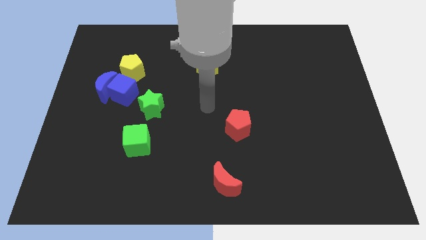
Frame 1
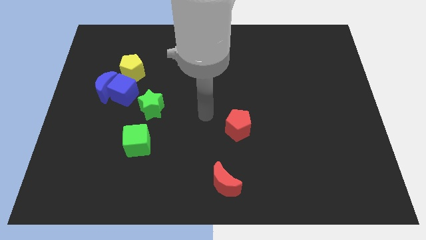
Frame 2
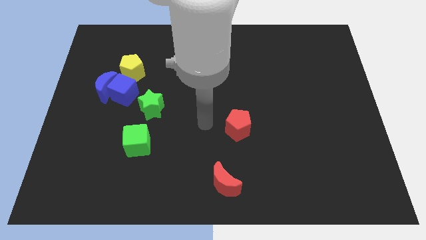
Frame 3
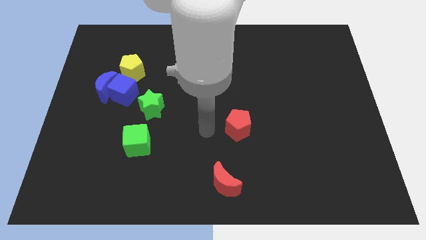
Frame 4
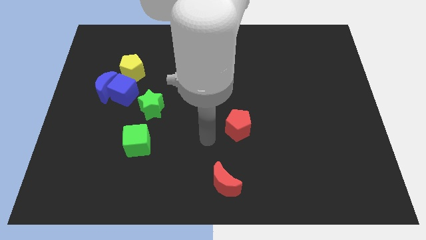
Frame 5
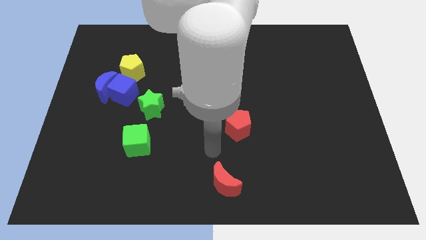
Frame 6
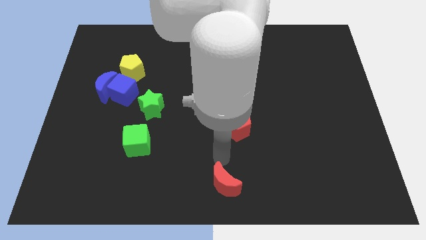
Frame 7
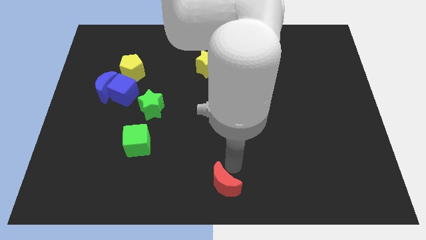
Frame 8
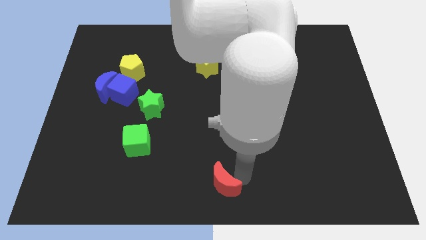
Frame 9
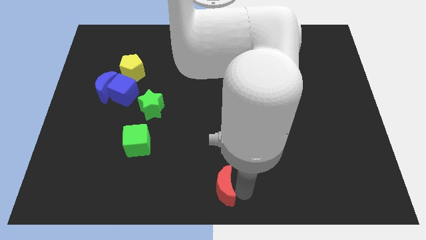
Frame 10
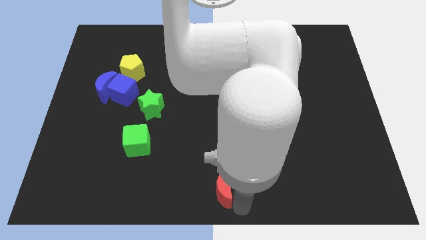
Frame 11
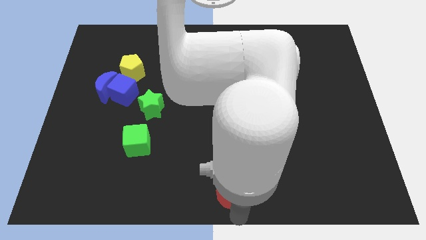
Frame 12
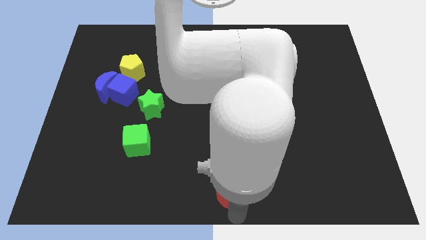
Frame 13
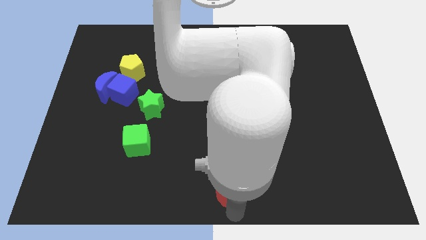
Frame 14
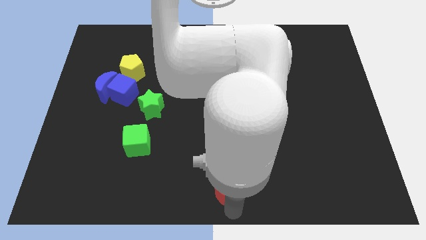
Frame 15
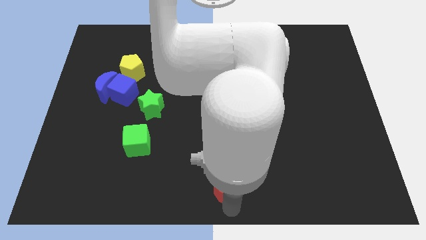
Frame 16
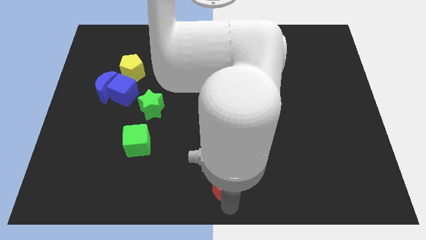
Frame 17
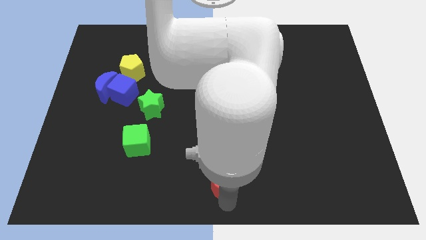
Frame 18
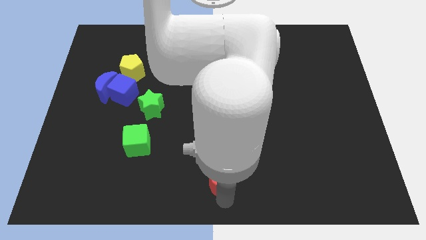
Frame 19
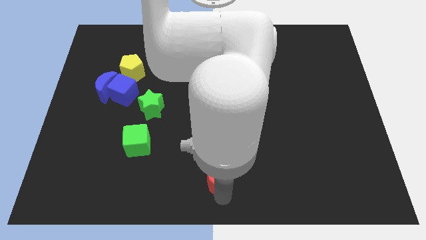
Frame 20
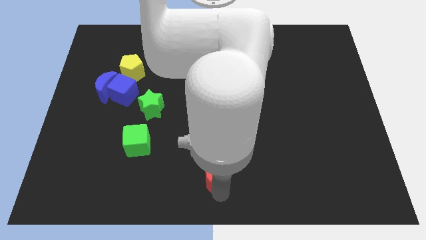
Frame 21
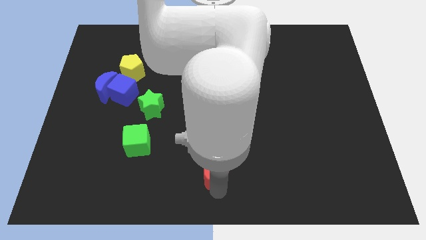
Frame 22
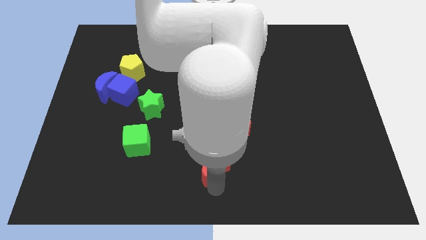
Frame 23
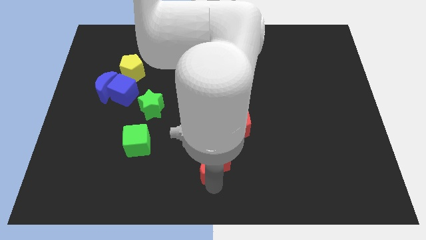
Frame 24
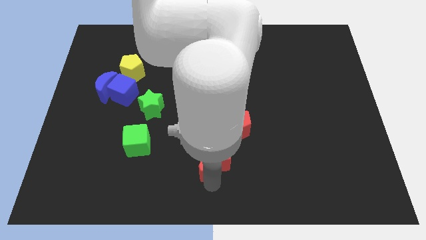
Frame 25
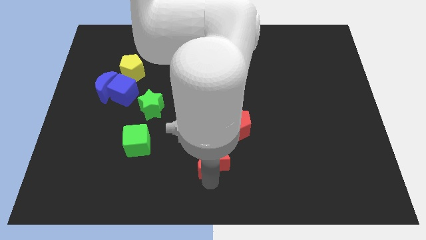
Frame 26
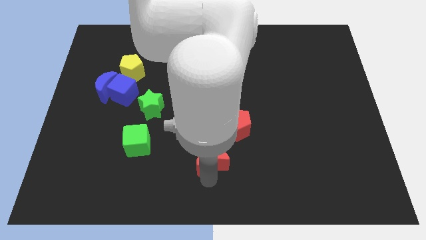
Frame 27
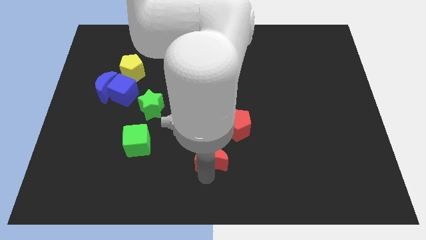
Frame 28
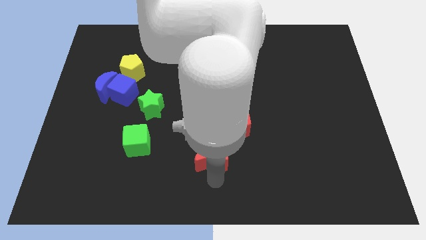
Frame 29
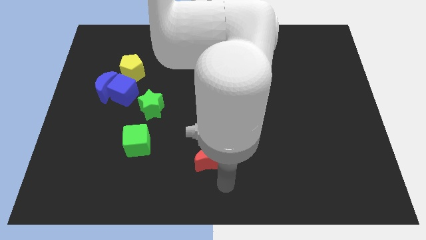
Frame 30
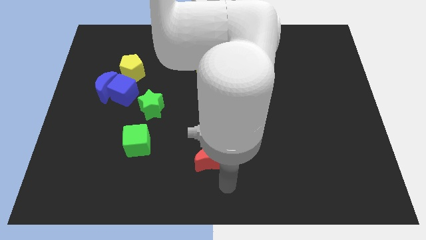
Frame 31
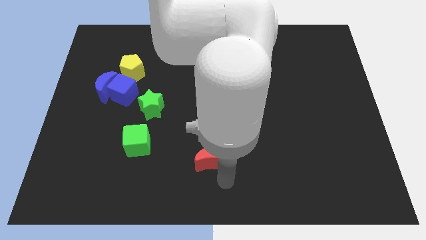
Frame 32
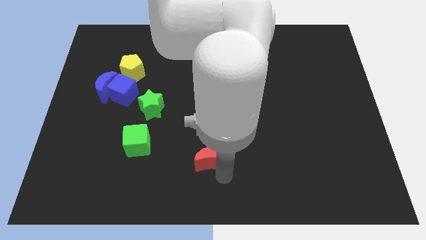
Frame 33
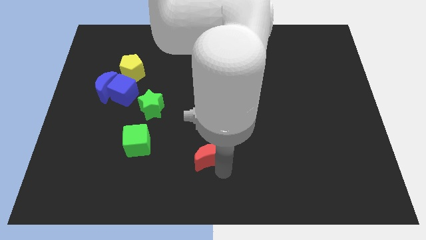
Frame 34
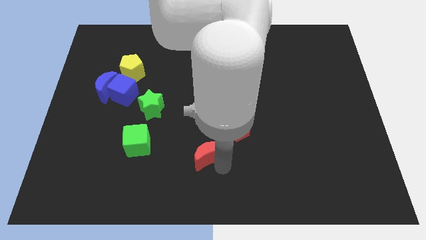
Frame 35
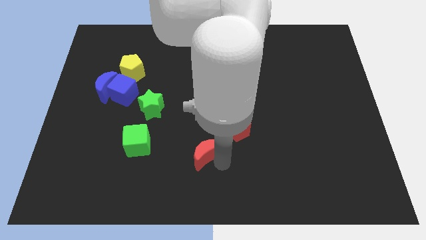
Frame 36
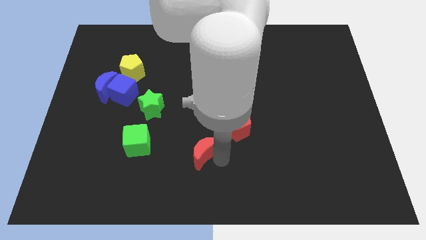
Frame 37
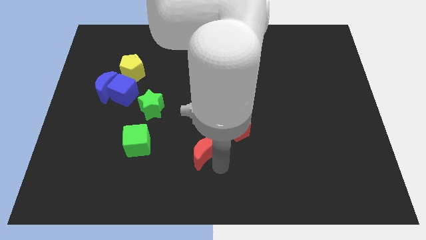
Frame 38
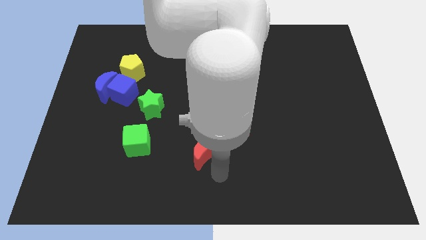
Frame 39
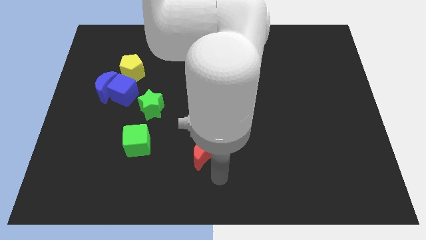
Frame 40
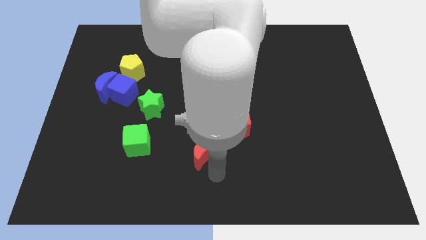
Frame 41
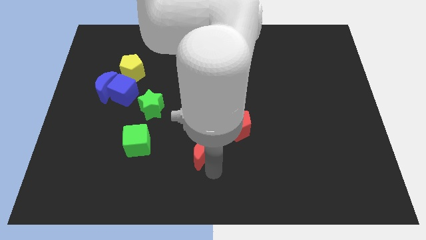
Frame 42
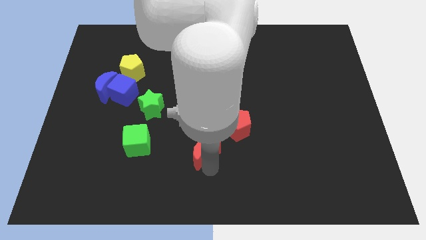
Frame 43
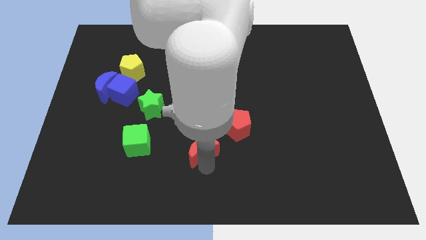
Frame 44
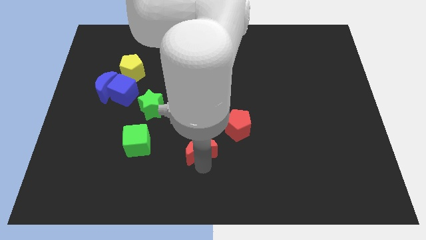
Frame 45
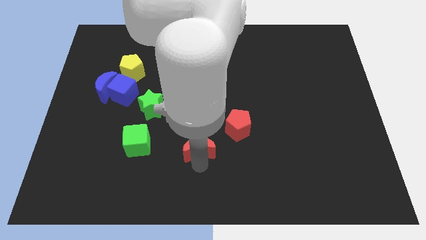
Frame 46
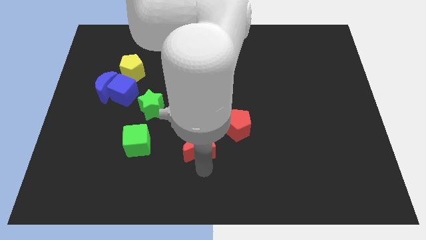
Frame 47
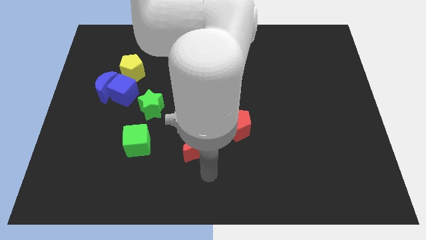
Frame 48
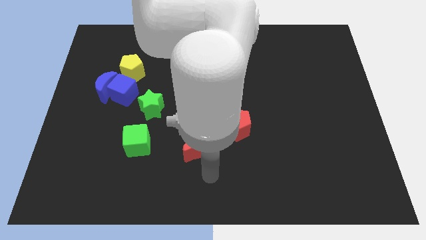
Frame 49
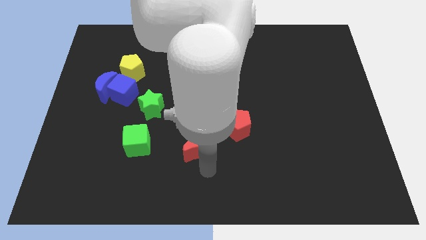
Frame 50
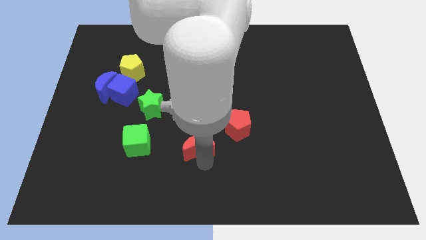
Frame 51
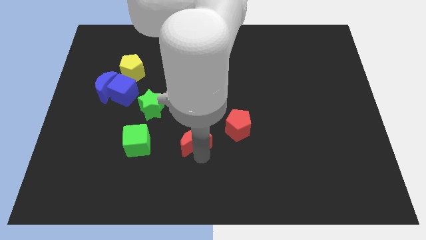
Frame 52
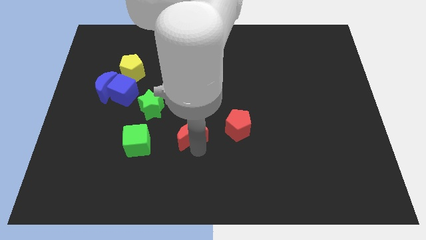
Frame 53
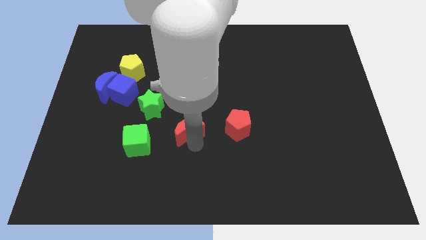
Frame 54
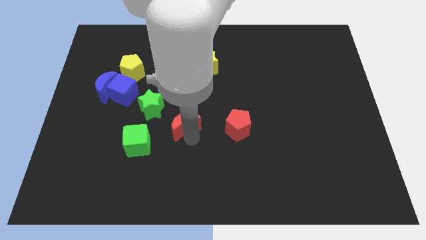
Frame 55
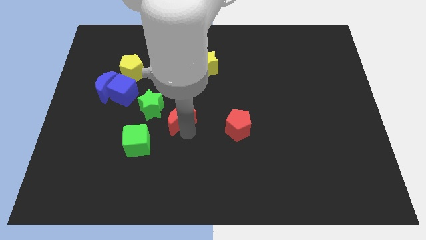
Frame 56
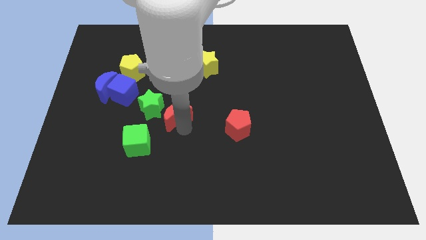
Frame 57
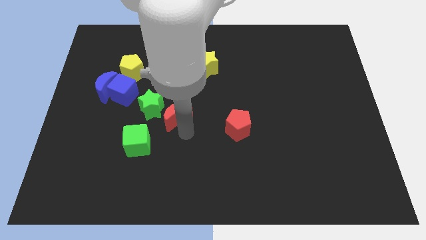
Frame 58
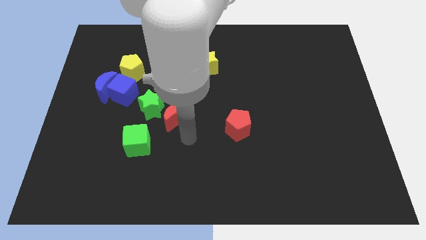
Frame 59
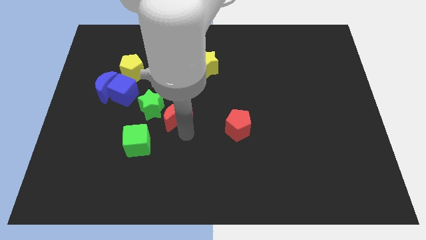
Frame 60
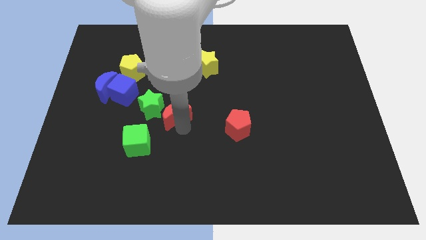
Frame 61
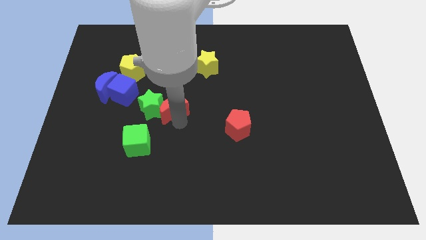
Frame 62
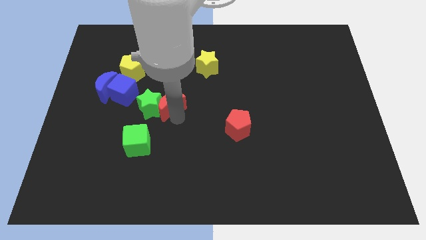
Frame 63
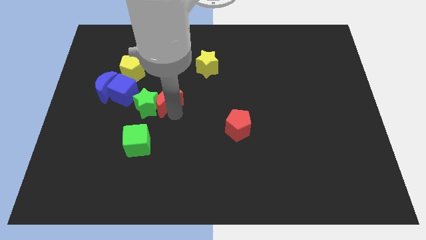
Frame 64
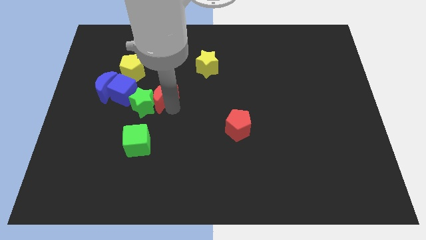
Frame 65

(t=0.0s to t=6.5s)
put the red moon to the top of the green cube

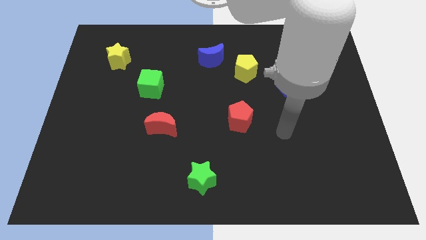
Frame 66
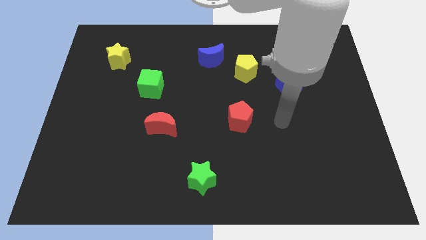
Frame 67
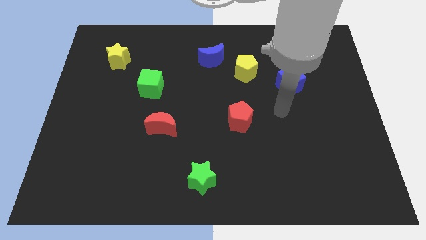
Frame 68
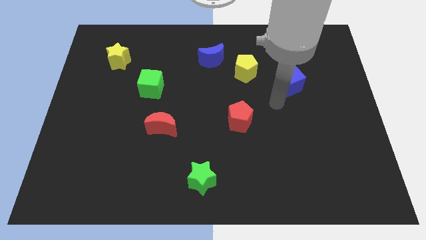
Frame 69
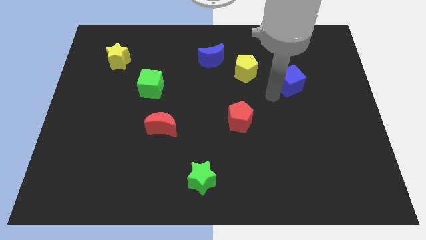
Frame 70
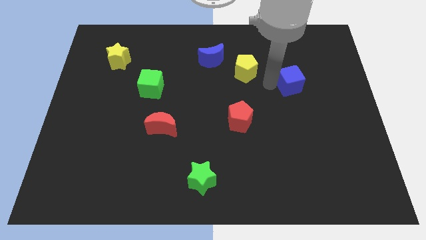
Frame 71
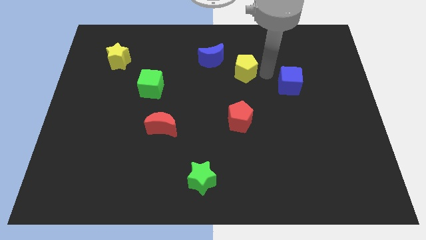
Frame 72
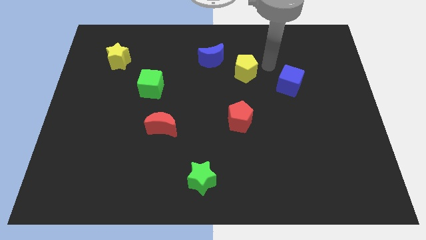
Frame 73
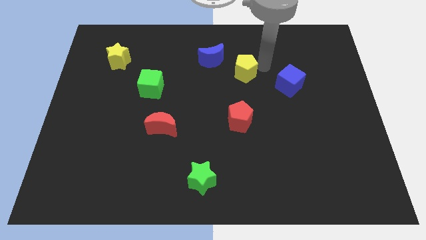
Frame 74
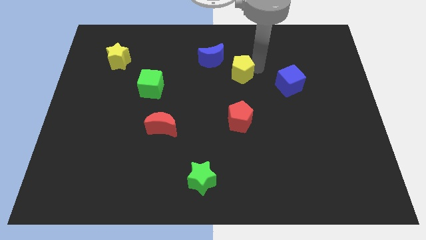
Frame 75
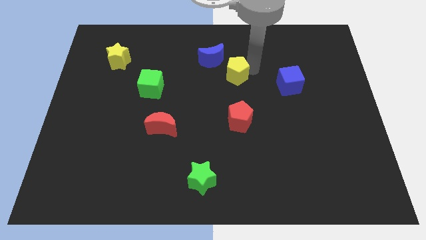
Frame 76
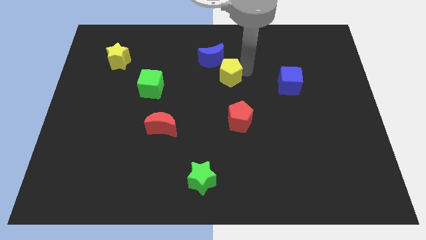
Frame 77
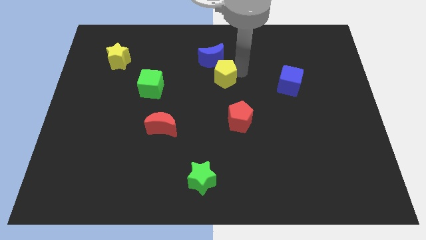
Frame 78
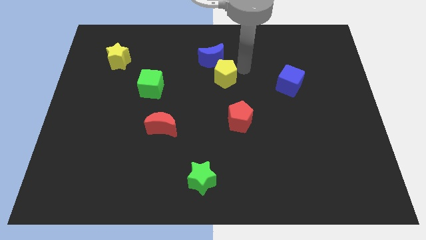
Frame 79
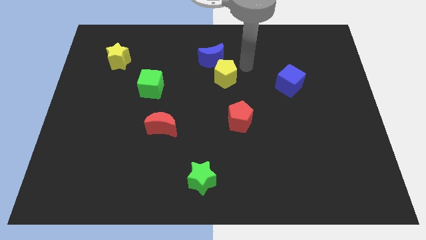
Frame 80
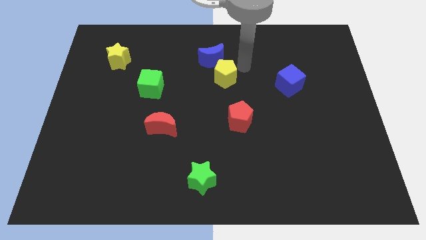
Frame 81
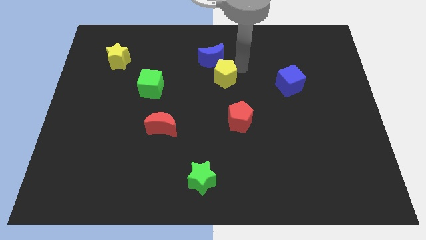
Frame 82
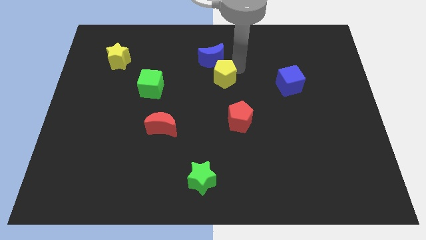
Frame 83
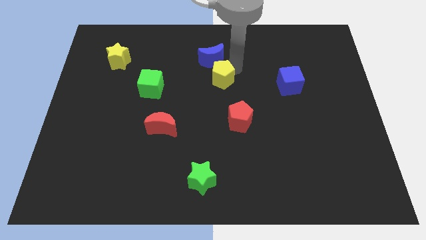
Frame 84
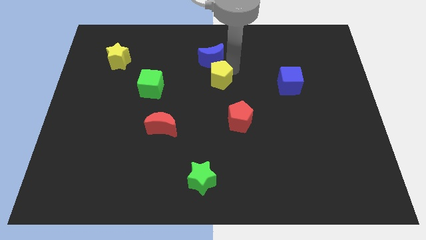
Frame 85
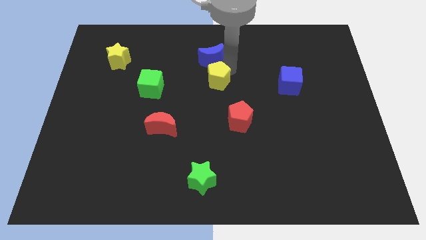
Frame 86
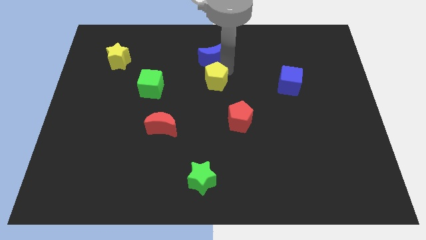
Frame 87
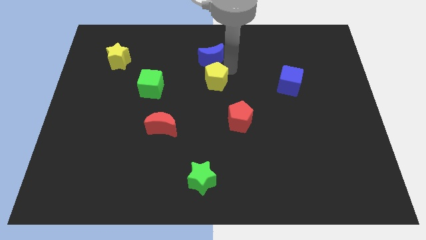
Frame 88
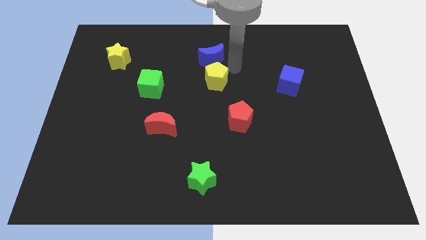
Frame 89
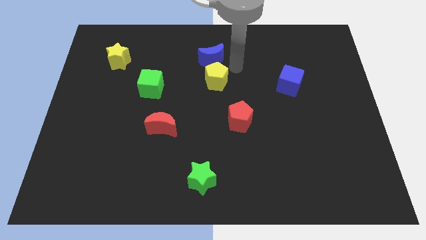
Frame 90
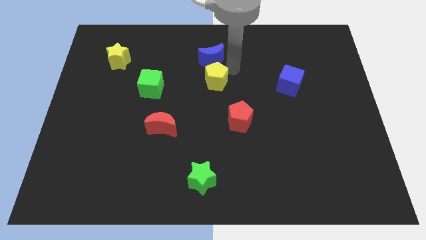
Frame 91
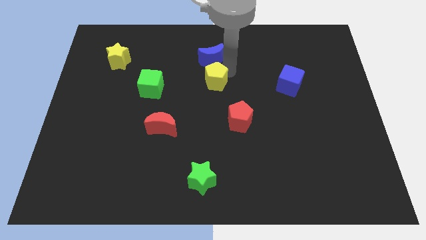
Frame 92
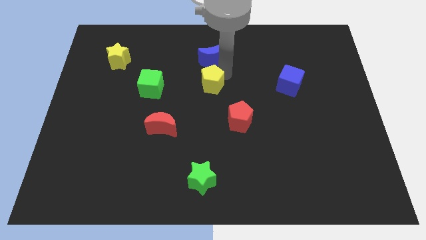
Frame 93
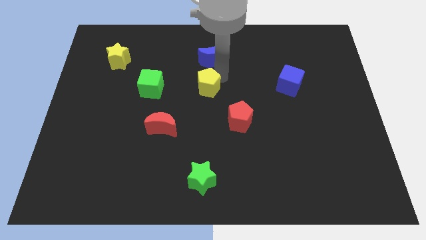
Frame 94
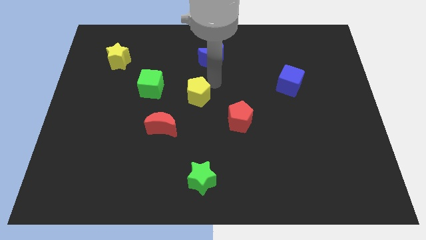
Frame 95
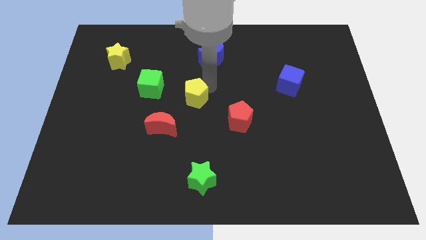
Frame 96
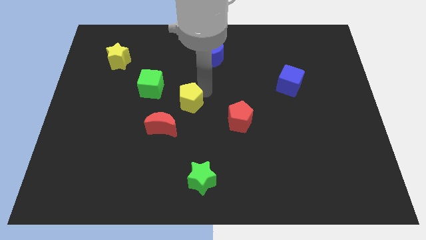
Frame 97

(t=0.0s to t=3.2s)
move the yellow pentagon to the bottom right of the green cube
